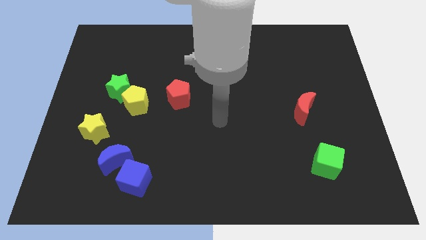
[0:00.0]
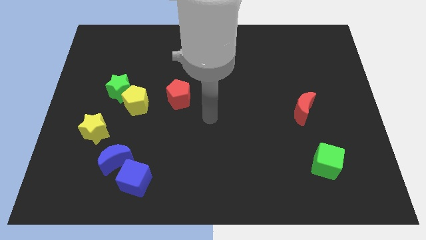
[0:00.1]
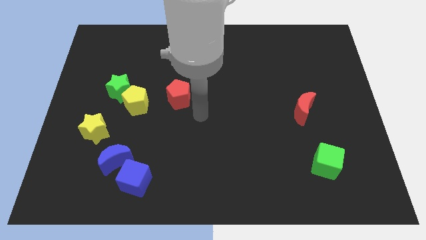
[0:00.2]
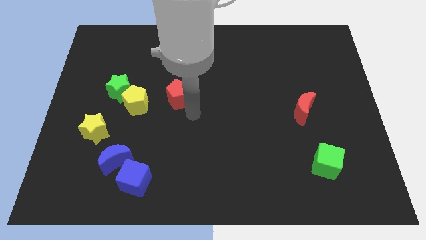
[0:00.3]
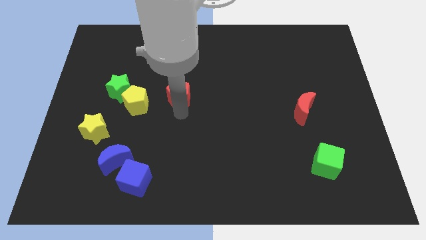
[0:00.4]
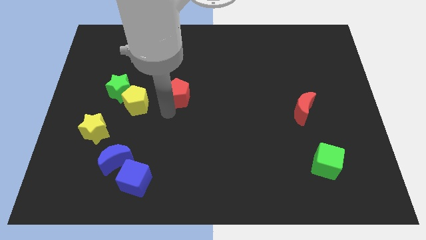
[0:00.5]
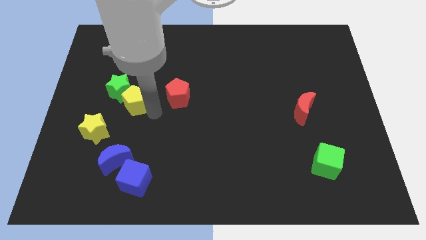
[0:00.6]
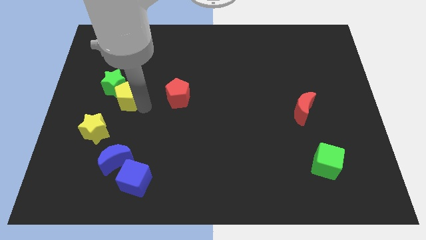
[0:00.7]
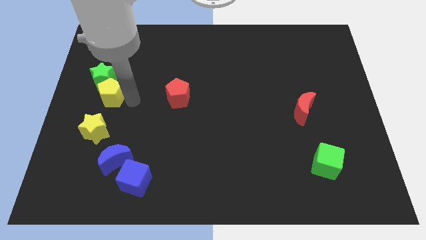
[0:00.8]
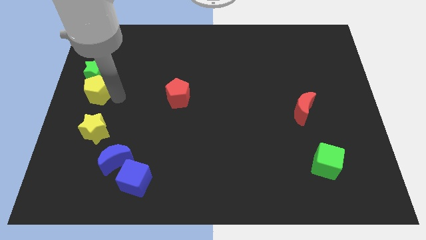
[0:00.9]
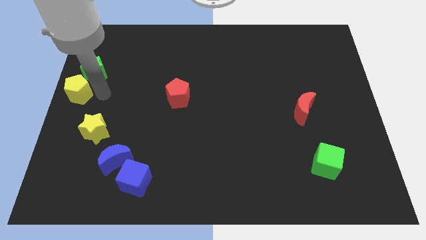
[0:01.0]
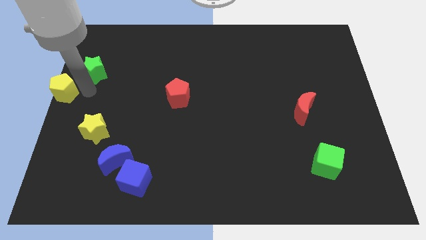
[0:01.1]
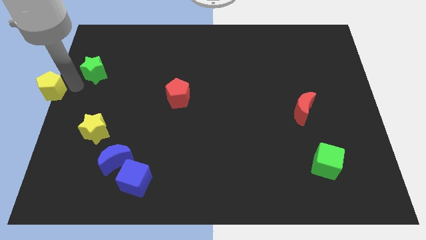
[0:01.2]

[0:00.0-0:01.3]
move the green star away from the yellow pentagon

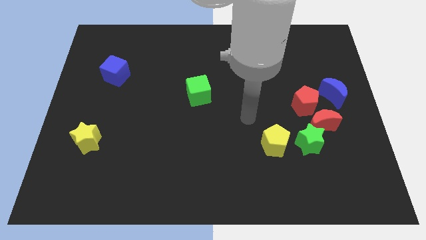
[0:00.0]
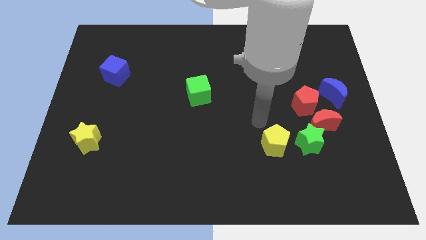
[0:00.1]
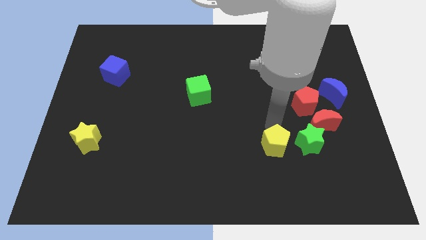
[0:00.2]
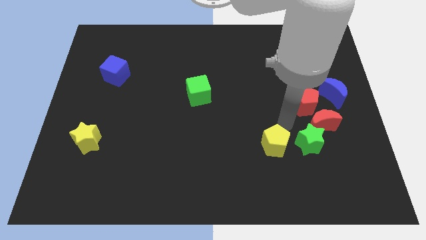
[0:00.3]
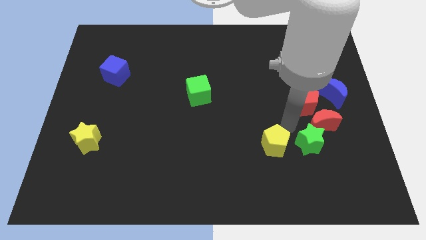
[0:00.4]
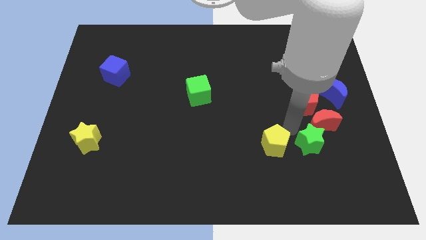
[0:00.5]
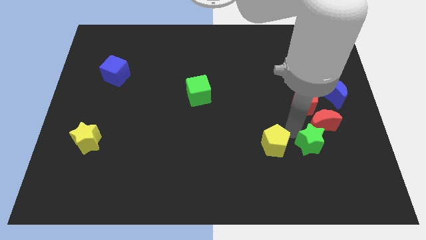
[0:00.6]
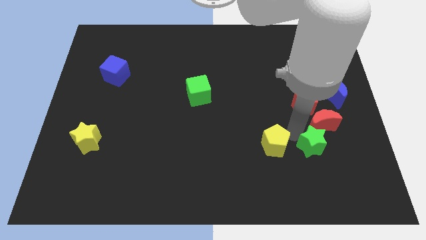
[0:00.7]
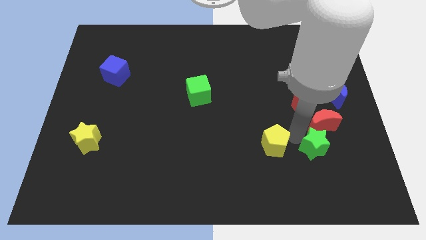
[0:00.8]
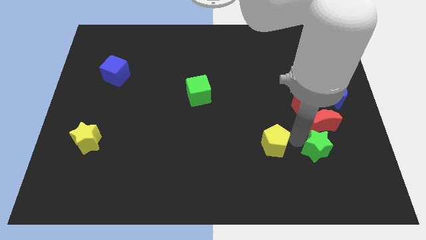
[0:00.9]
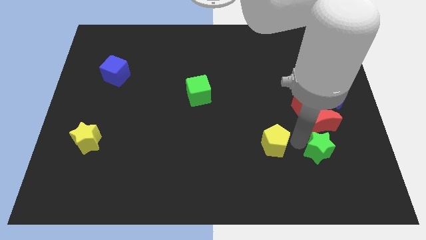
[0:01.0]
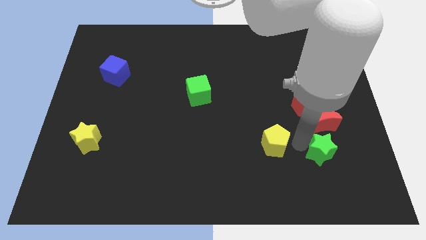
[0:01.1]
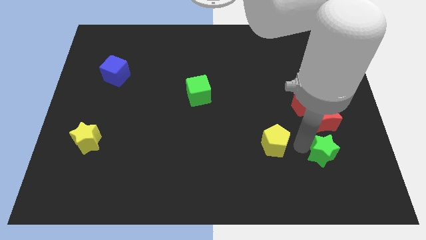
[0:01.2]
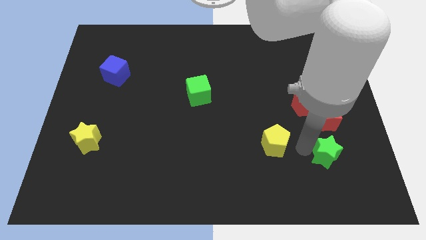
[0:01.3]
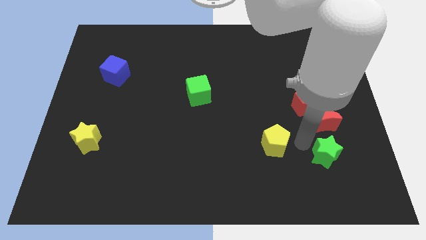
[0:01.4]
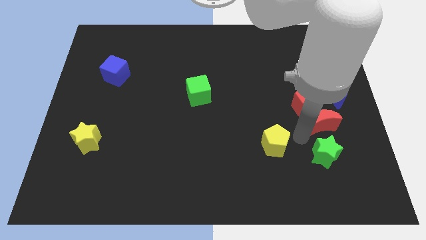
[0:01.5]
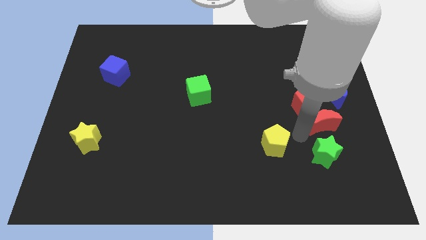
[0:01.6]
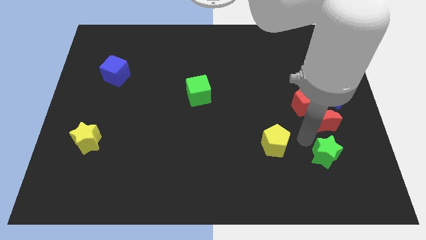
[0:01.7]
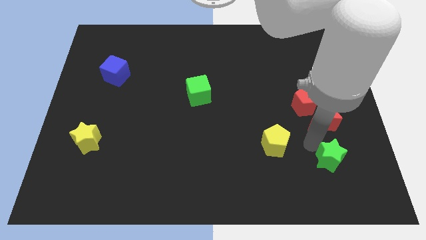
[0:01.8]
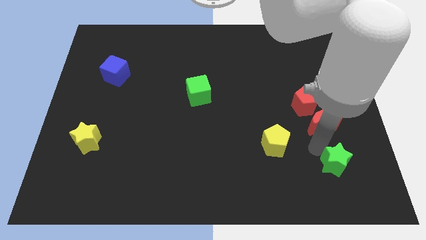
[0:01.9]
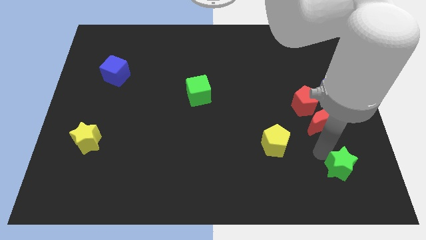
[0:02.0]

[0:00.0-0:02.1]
pull the green star apart from the red moon and yellow pentagon

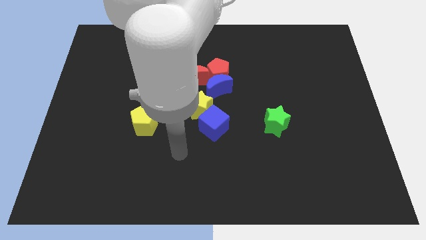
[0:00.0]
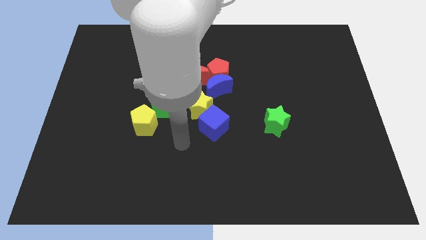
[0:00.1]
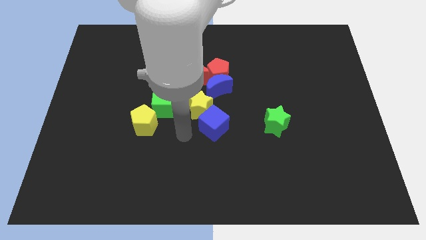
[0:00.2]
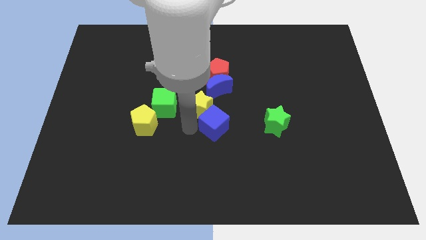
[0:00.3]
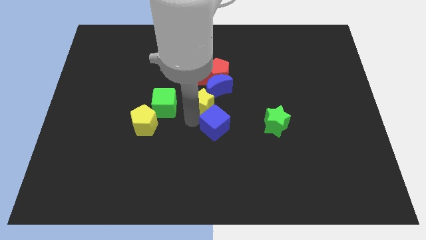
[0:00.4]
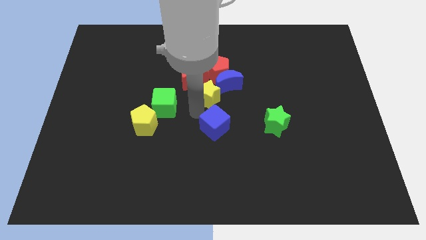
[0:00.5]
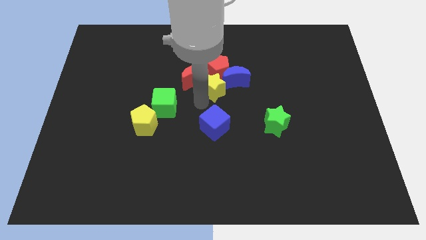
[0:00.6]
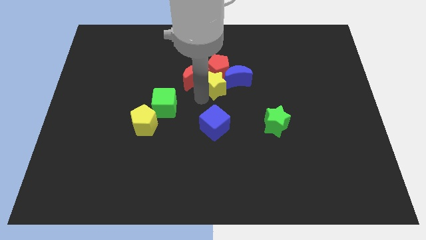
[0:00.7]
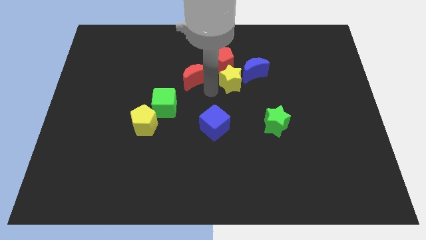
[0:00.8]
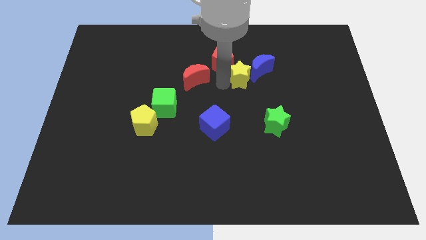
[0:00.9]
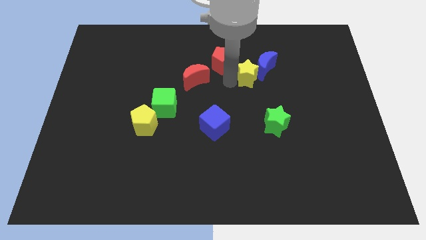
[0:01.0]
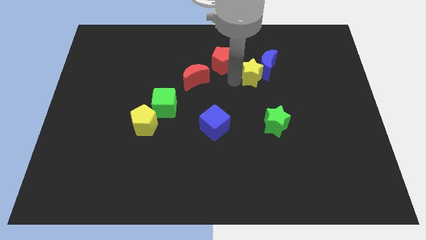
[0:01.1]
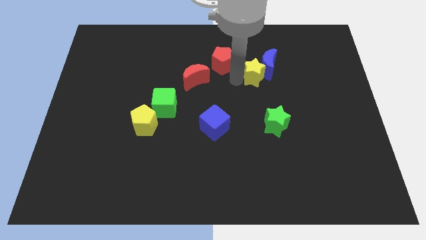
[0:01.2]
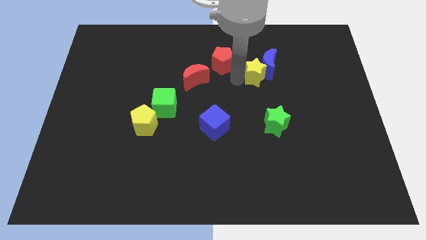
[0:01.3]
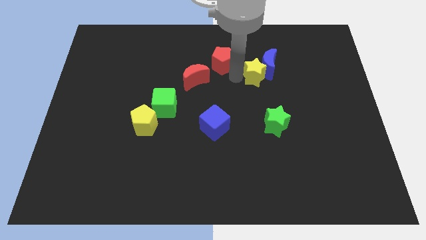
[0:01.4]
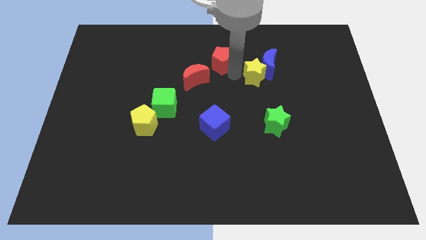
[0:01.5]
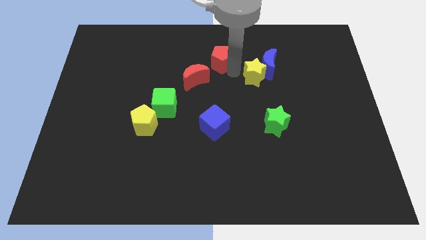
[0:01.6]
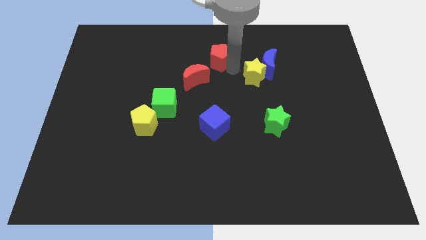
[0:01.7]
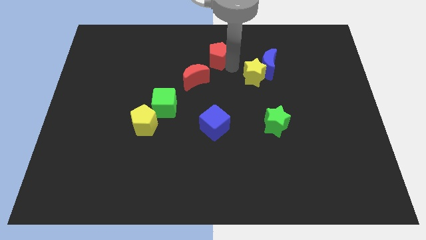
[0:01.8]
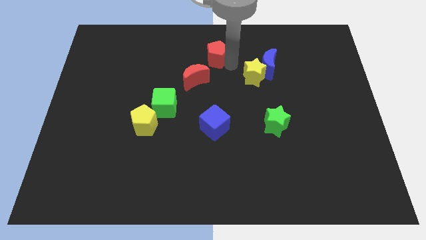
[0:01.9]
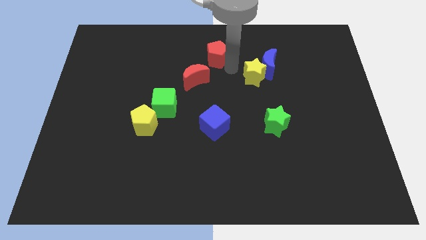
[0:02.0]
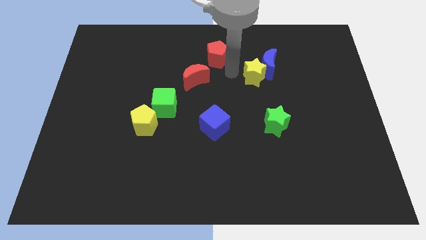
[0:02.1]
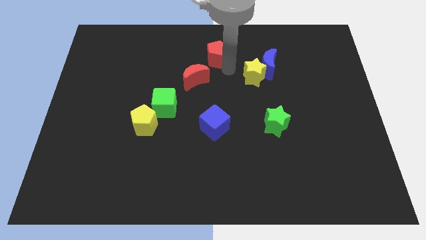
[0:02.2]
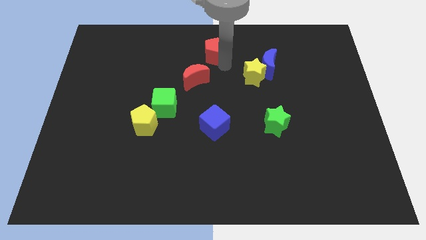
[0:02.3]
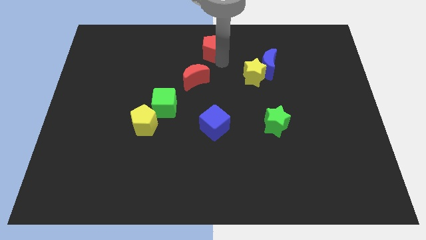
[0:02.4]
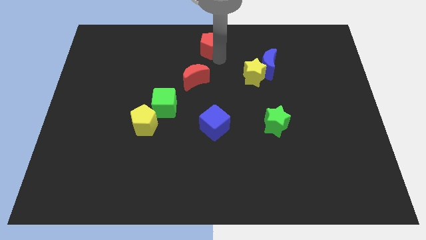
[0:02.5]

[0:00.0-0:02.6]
separate the red pentagon from the blue moon and red moon

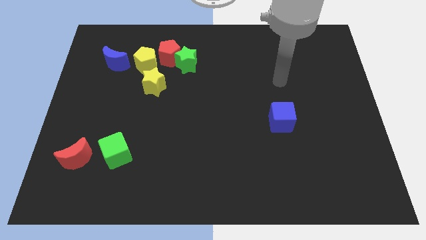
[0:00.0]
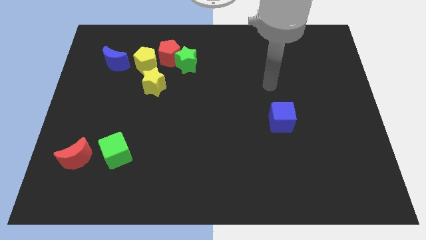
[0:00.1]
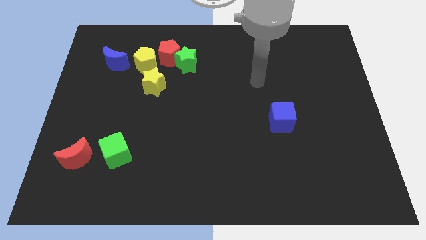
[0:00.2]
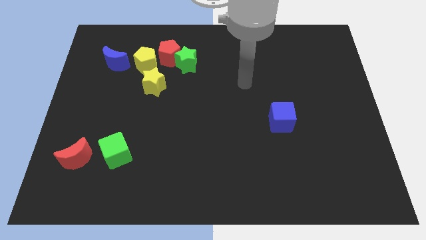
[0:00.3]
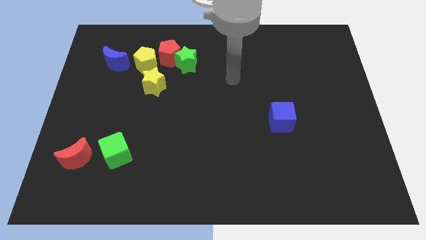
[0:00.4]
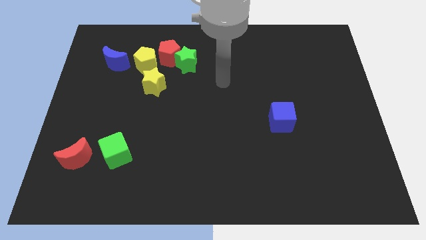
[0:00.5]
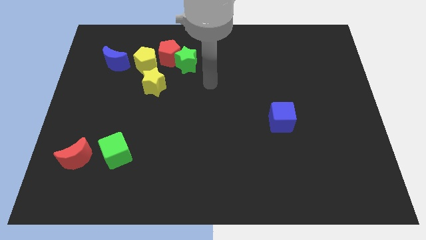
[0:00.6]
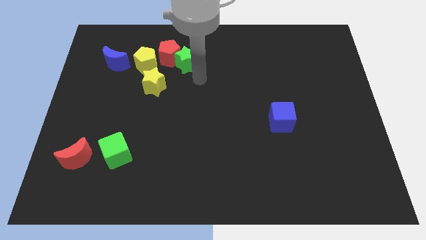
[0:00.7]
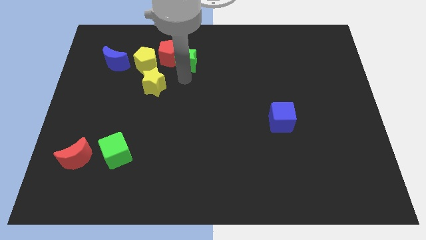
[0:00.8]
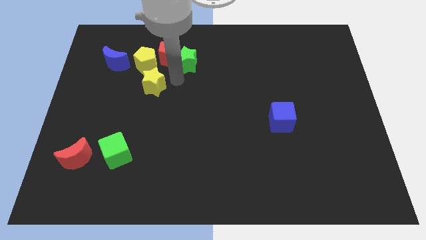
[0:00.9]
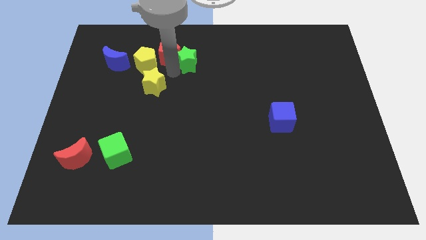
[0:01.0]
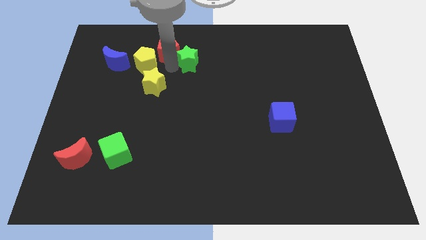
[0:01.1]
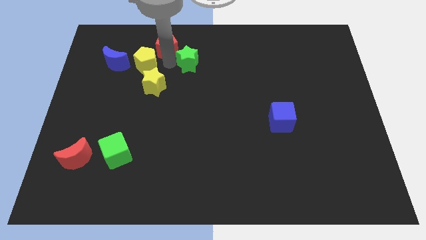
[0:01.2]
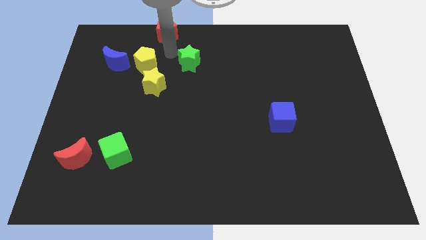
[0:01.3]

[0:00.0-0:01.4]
pull the green star apart from the red pentagon

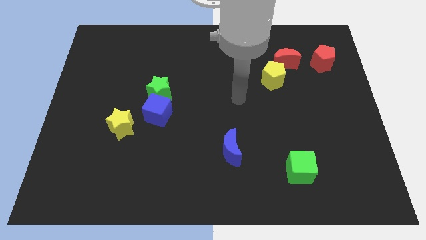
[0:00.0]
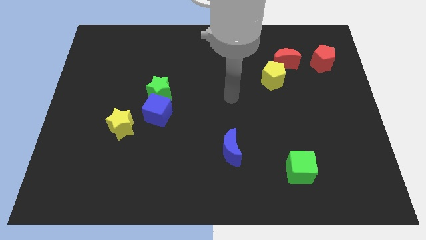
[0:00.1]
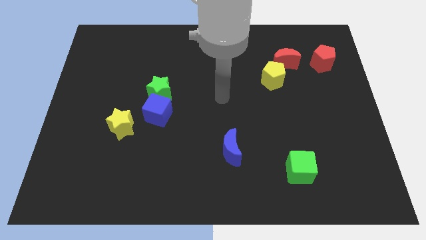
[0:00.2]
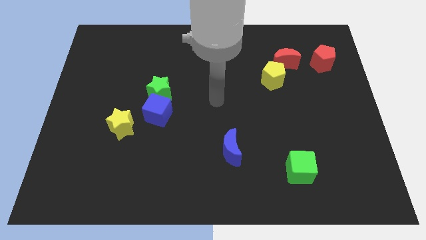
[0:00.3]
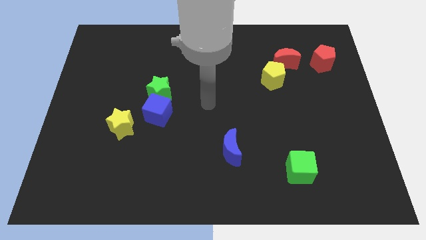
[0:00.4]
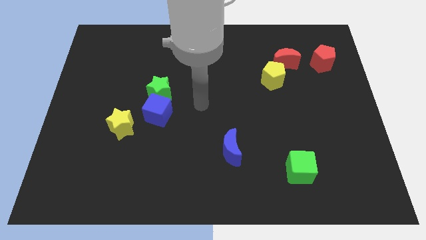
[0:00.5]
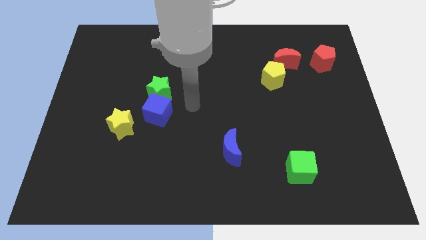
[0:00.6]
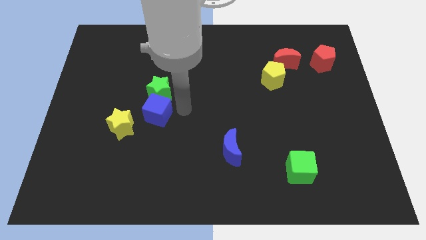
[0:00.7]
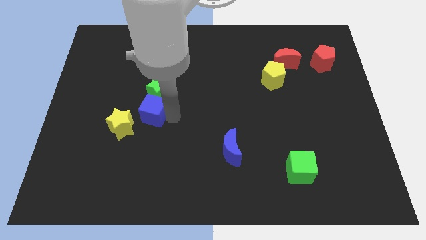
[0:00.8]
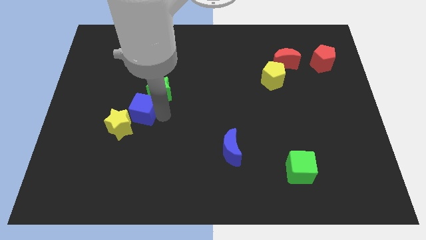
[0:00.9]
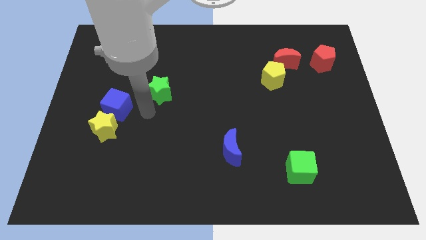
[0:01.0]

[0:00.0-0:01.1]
separate the green star from the blue cube

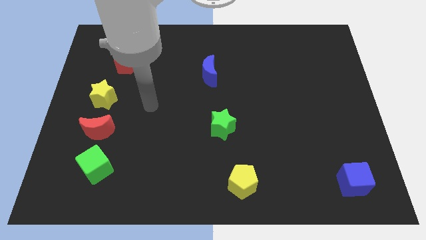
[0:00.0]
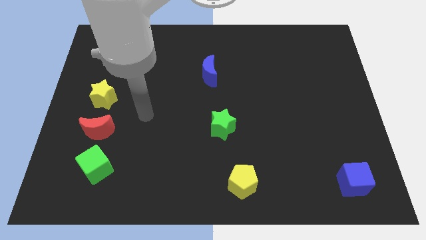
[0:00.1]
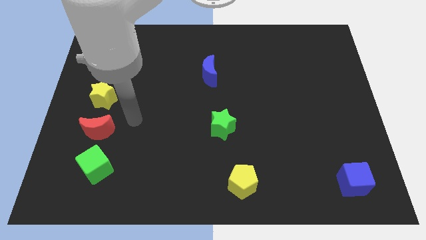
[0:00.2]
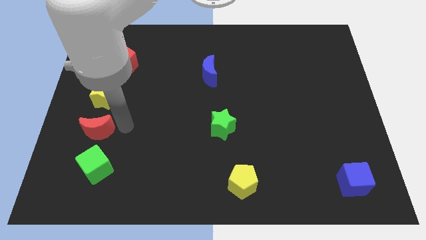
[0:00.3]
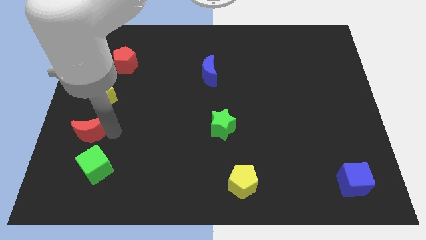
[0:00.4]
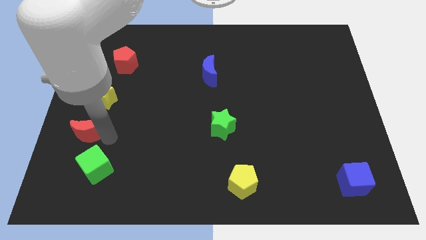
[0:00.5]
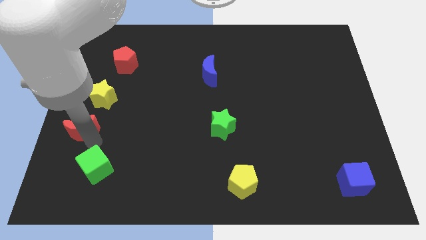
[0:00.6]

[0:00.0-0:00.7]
move the green cube away from the red moon
